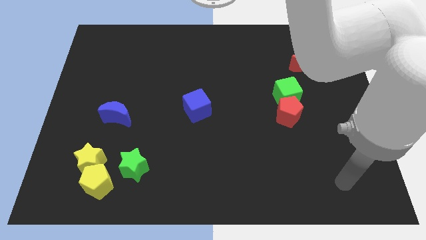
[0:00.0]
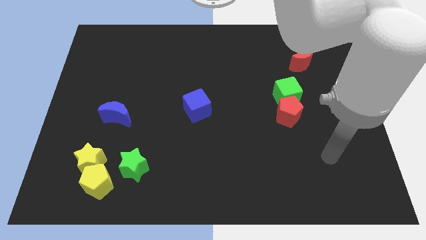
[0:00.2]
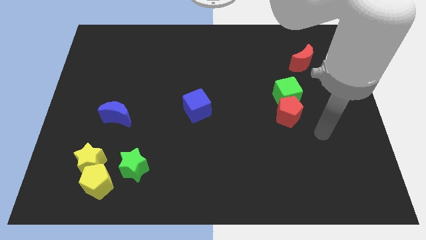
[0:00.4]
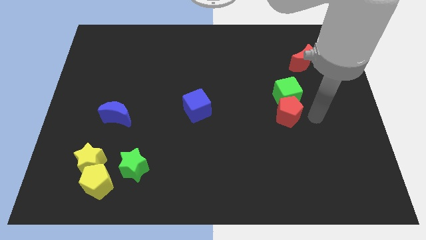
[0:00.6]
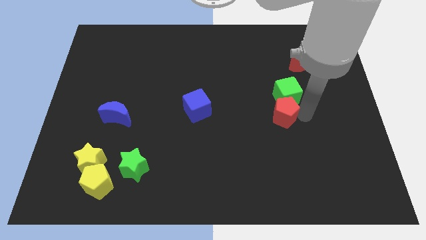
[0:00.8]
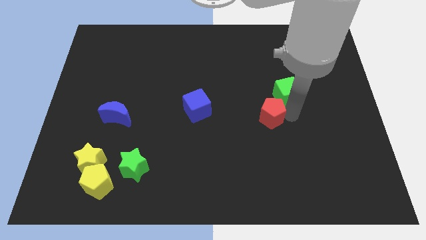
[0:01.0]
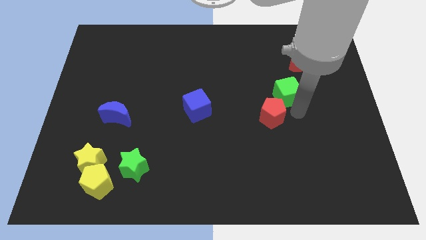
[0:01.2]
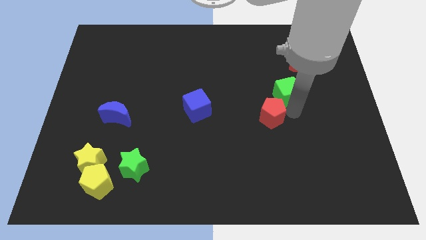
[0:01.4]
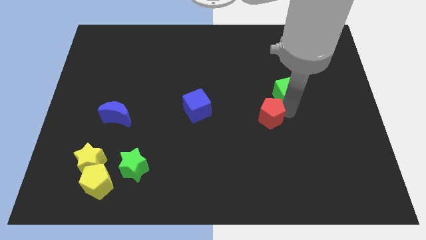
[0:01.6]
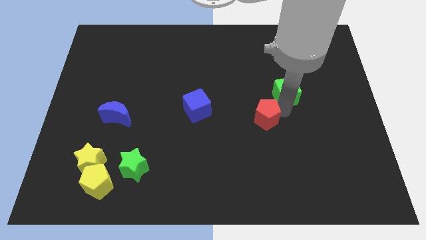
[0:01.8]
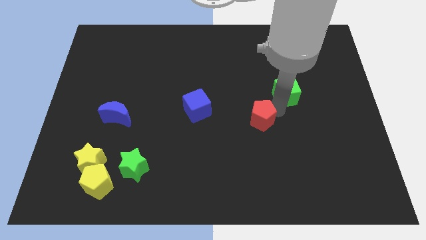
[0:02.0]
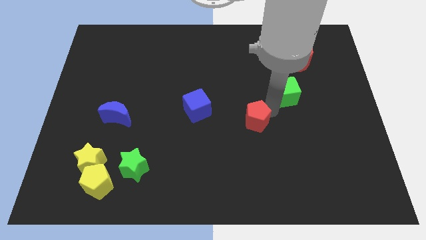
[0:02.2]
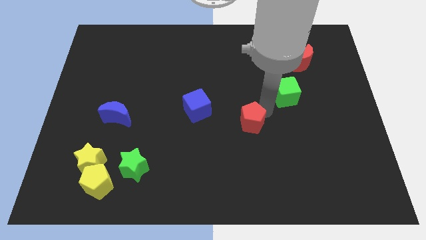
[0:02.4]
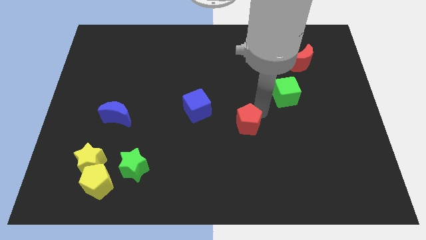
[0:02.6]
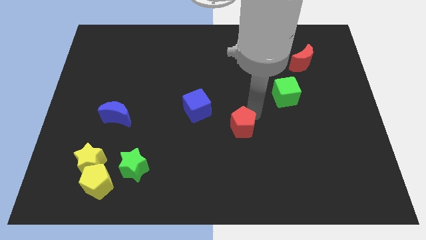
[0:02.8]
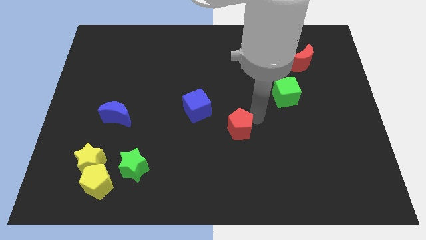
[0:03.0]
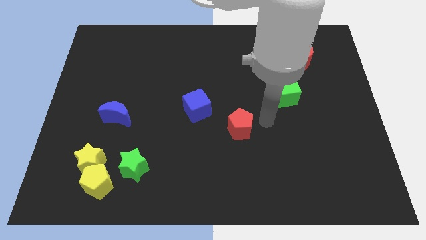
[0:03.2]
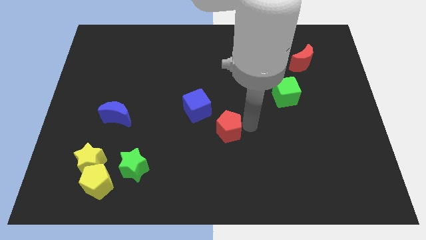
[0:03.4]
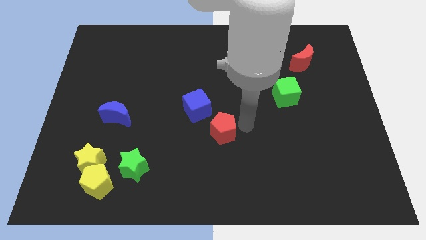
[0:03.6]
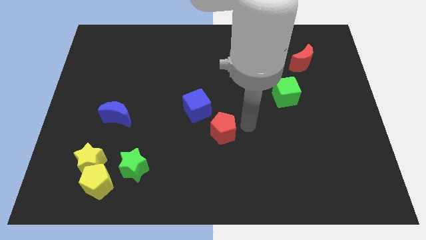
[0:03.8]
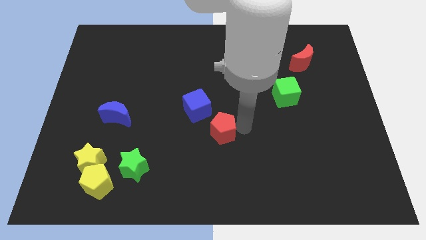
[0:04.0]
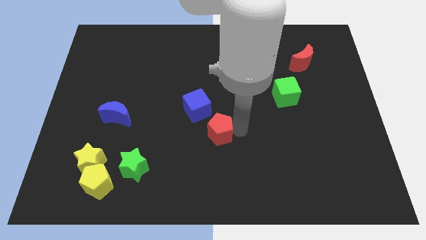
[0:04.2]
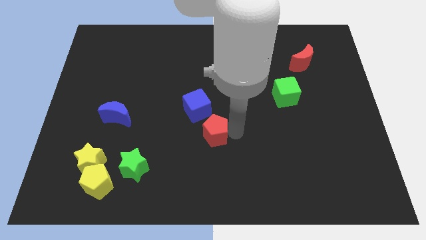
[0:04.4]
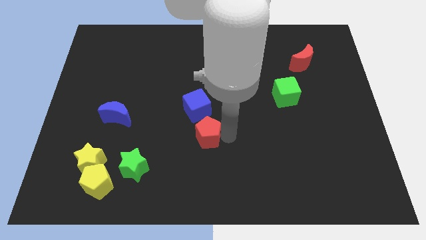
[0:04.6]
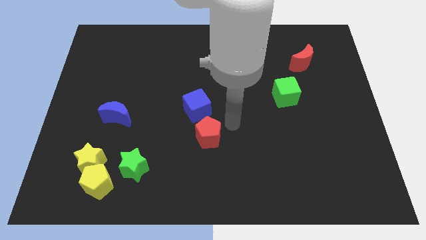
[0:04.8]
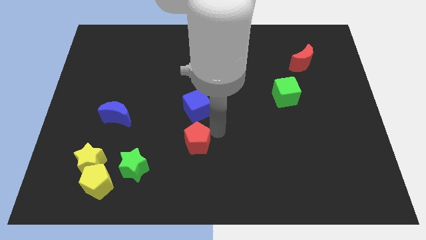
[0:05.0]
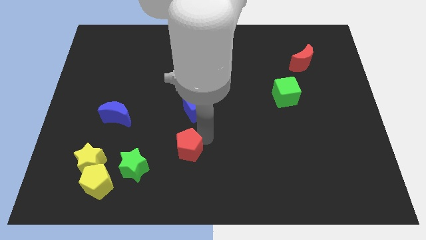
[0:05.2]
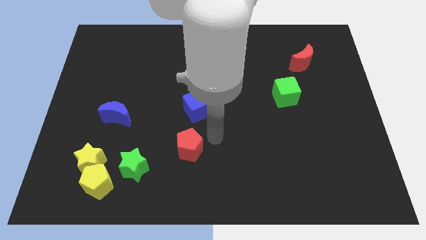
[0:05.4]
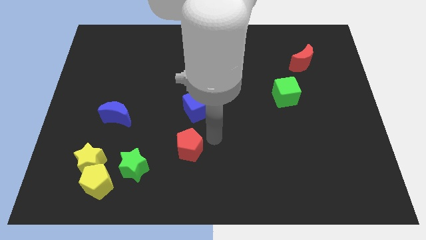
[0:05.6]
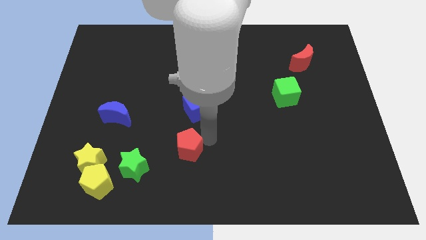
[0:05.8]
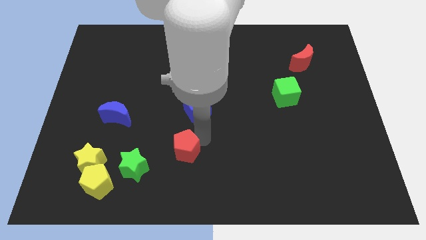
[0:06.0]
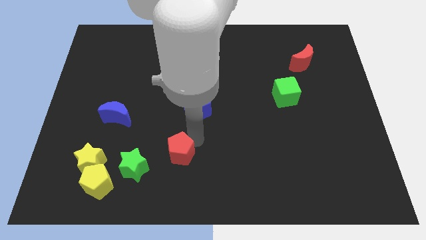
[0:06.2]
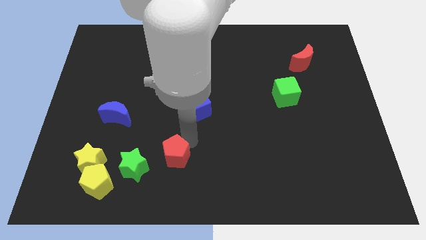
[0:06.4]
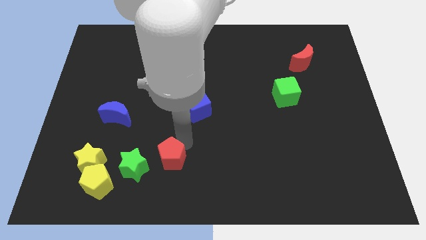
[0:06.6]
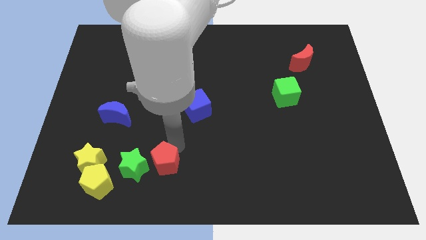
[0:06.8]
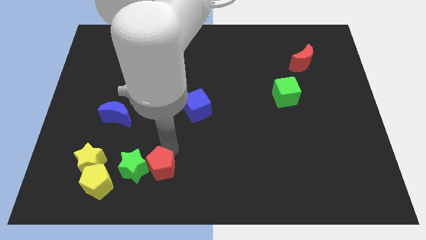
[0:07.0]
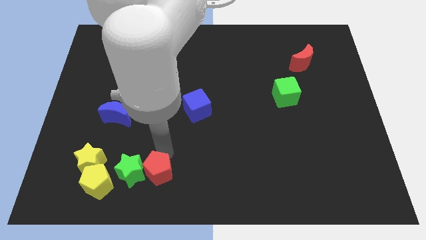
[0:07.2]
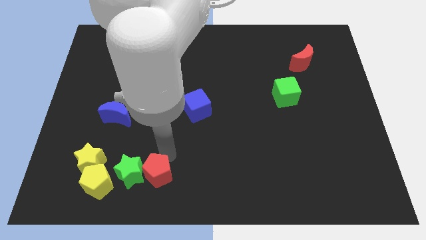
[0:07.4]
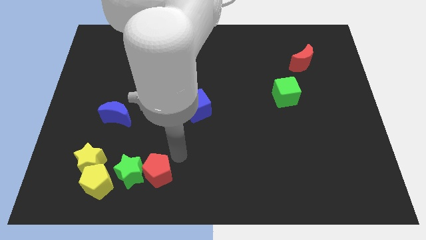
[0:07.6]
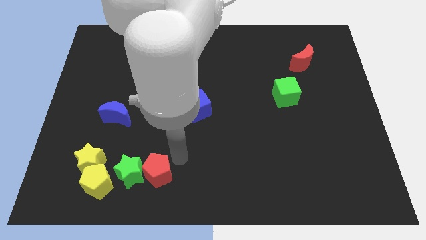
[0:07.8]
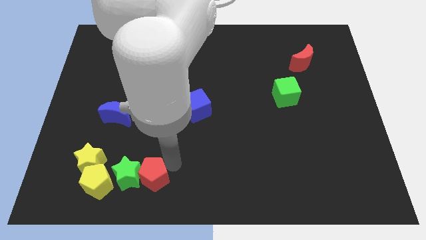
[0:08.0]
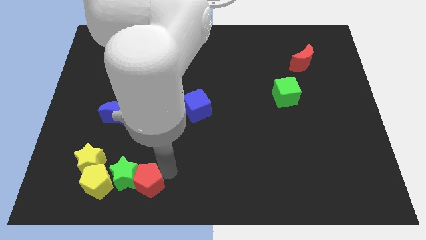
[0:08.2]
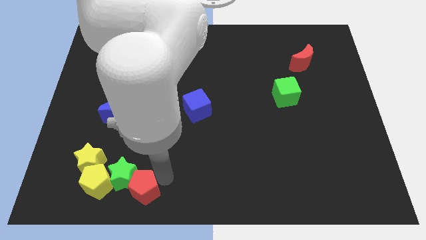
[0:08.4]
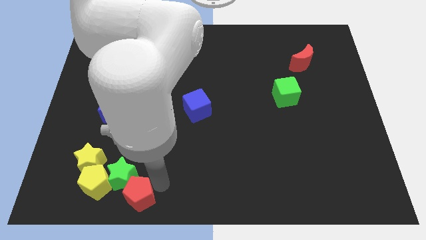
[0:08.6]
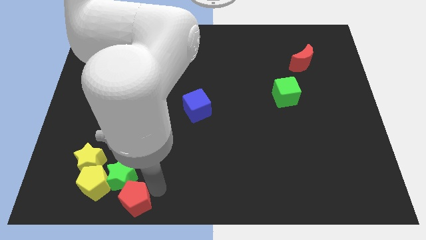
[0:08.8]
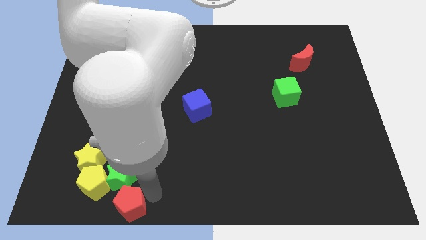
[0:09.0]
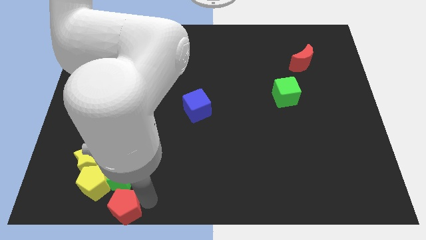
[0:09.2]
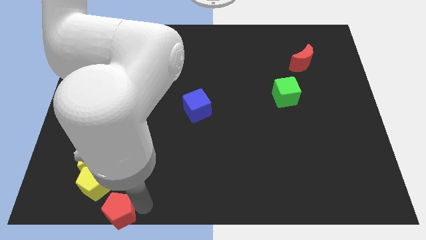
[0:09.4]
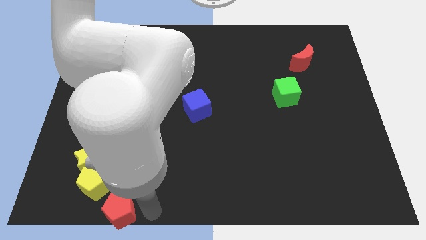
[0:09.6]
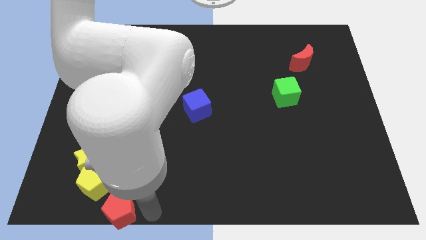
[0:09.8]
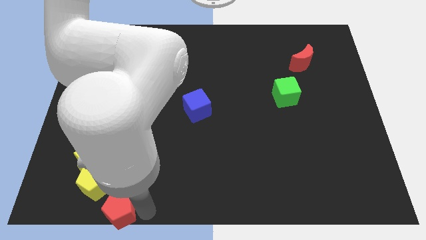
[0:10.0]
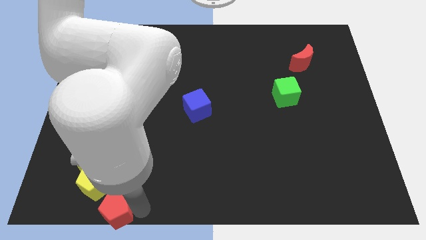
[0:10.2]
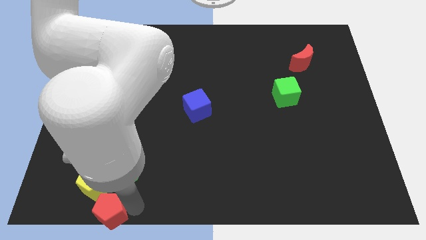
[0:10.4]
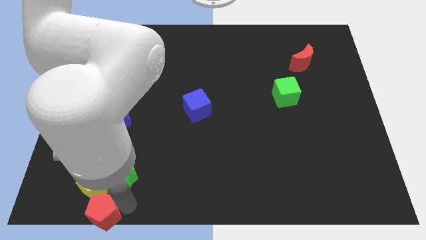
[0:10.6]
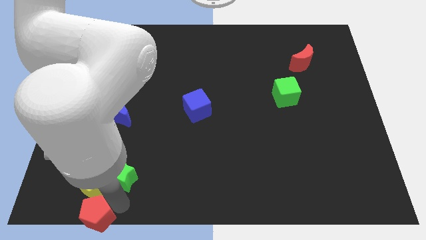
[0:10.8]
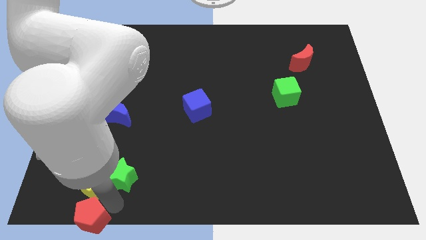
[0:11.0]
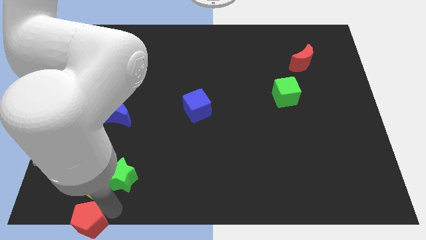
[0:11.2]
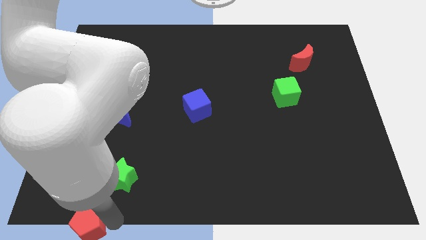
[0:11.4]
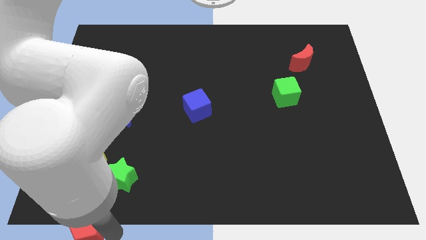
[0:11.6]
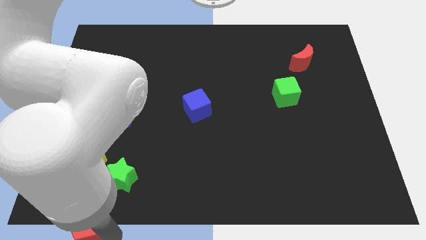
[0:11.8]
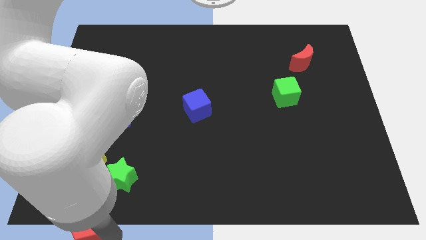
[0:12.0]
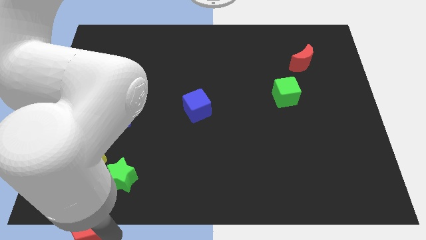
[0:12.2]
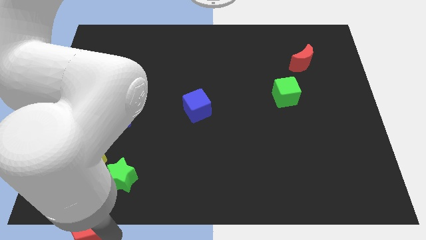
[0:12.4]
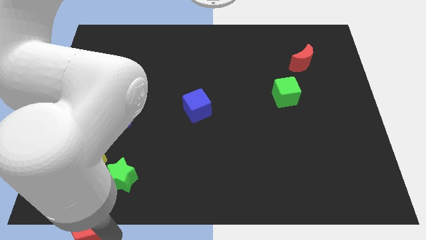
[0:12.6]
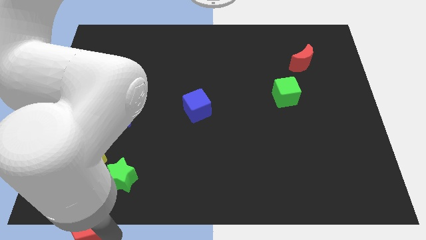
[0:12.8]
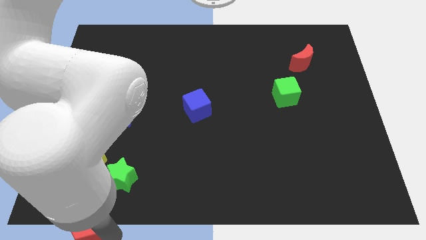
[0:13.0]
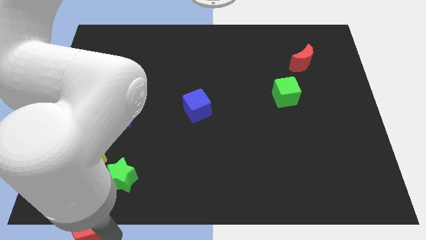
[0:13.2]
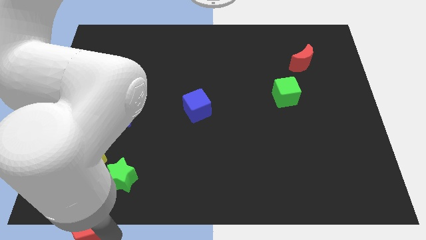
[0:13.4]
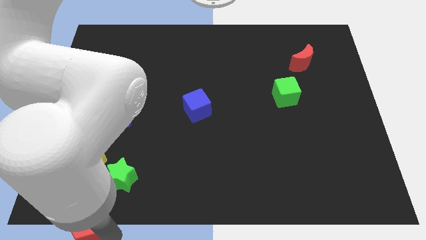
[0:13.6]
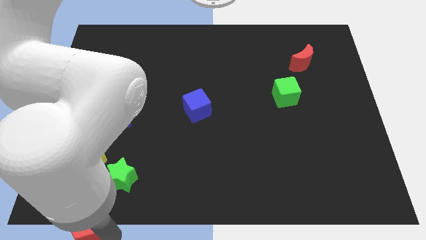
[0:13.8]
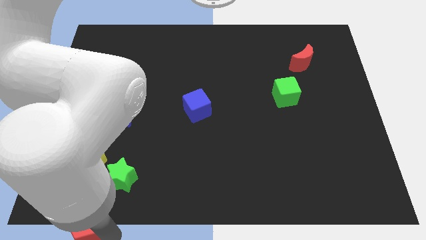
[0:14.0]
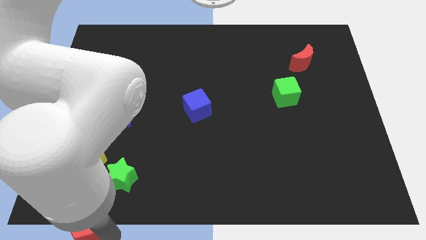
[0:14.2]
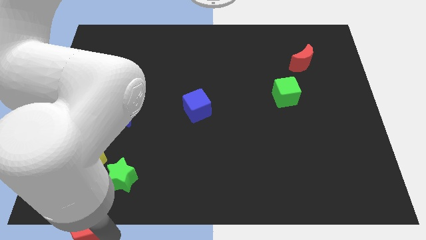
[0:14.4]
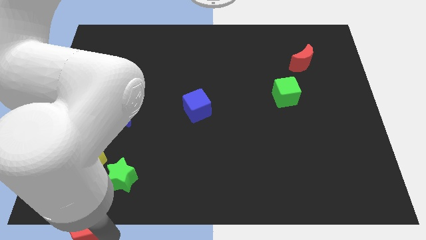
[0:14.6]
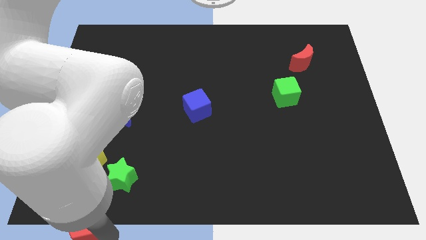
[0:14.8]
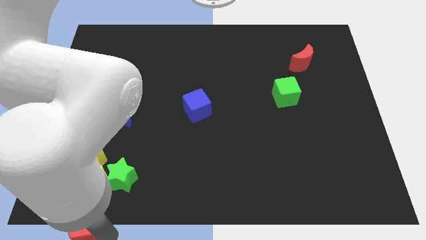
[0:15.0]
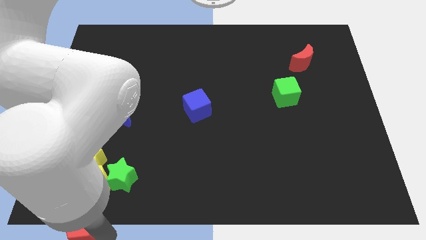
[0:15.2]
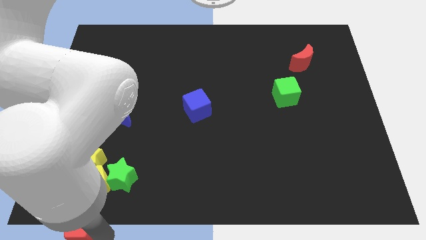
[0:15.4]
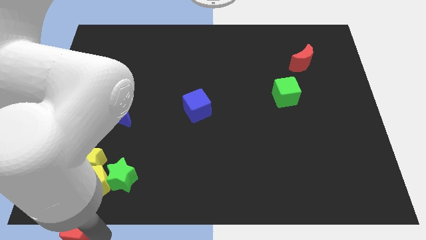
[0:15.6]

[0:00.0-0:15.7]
move the red pentagon to the lower left corner
